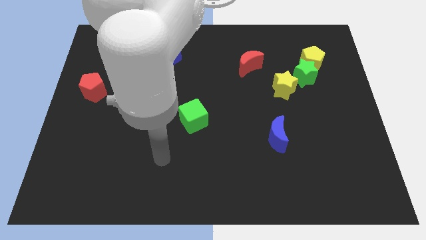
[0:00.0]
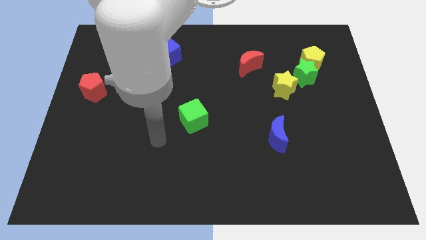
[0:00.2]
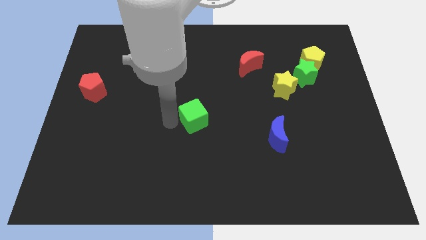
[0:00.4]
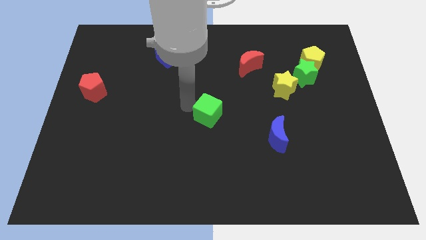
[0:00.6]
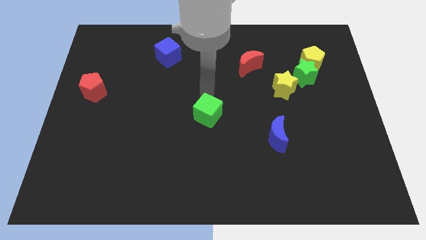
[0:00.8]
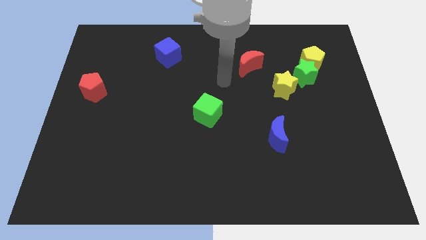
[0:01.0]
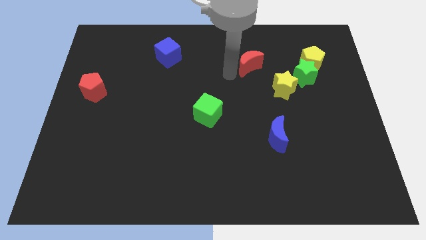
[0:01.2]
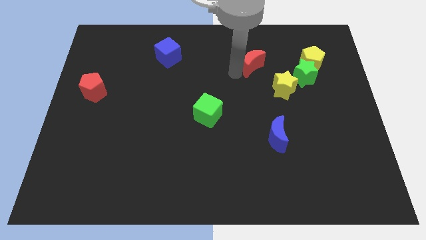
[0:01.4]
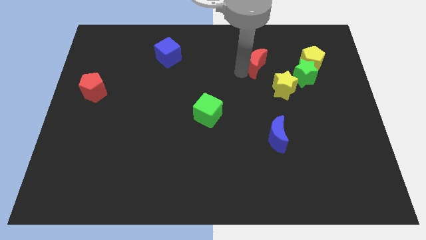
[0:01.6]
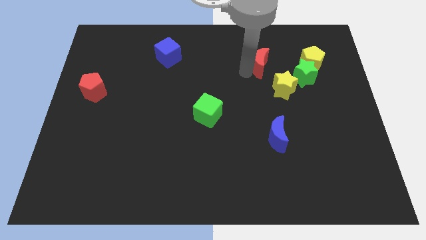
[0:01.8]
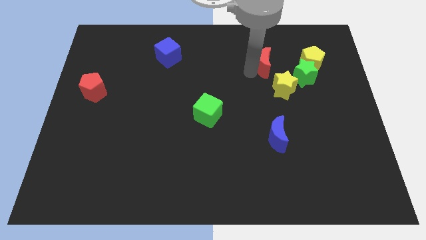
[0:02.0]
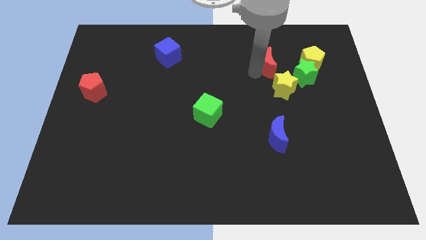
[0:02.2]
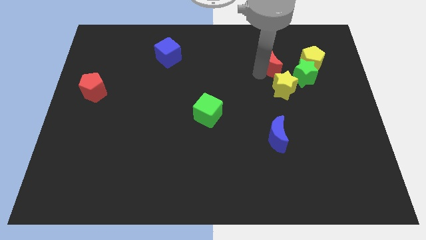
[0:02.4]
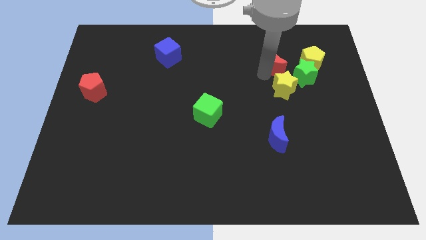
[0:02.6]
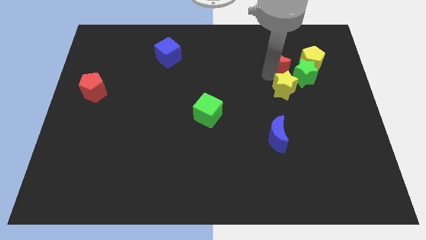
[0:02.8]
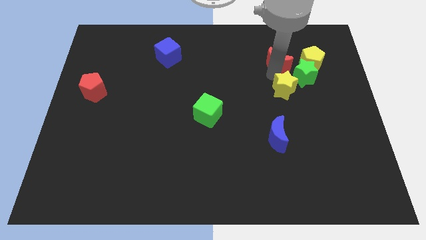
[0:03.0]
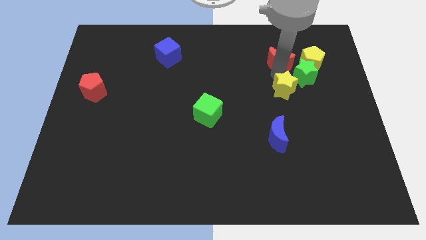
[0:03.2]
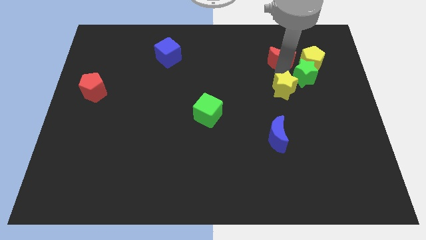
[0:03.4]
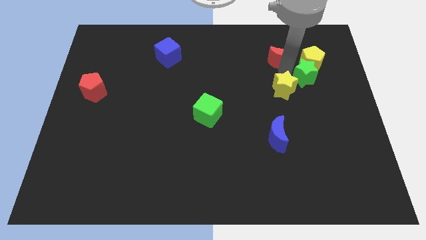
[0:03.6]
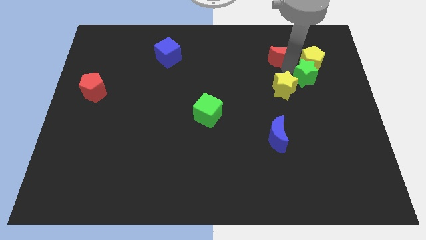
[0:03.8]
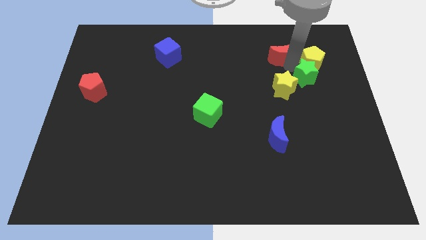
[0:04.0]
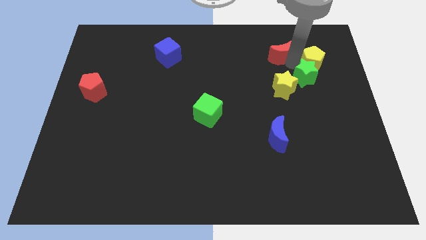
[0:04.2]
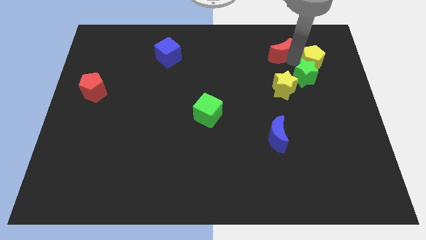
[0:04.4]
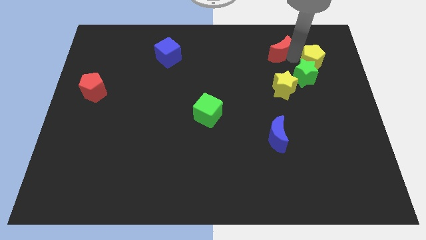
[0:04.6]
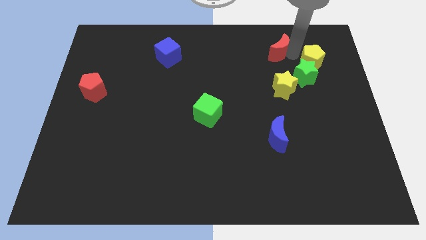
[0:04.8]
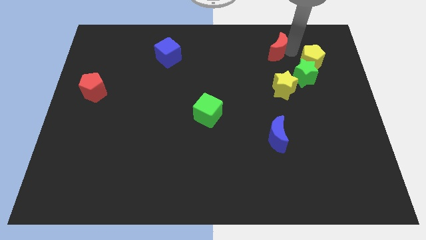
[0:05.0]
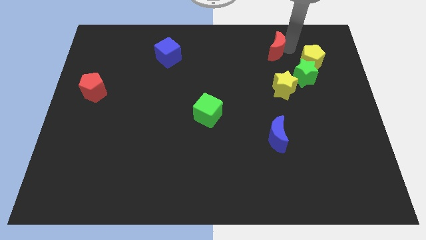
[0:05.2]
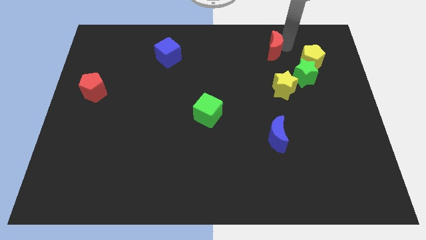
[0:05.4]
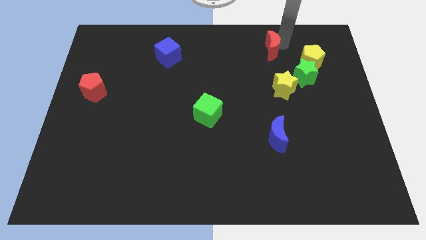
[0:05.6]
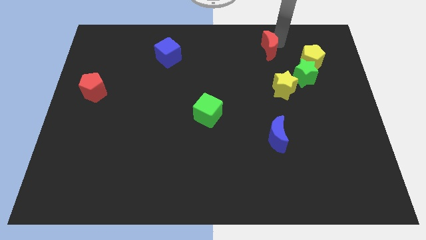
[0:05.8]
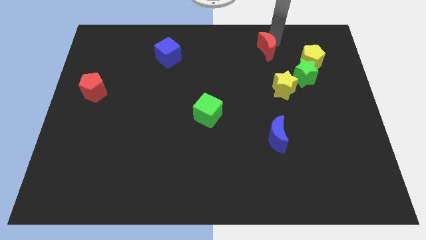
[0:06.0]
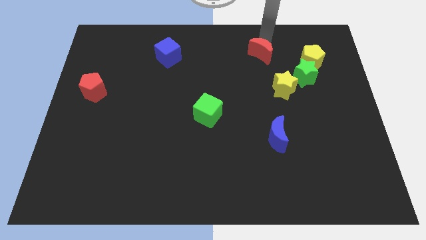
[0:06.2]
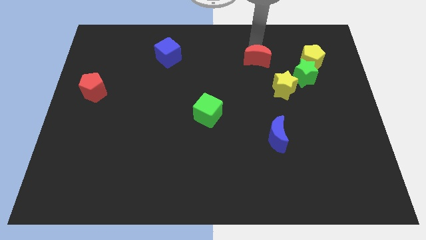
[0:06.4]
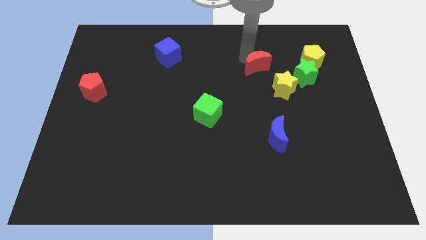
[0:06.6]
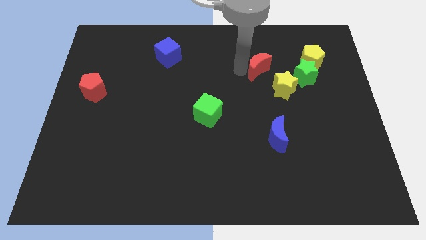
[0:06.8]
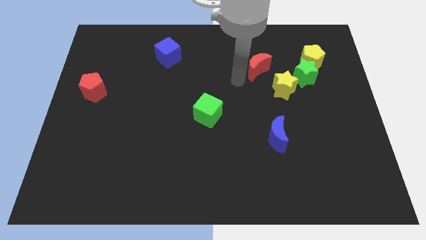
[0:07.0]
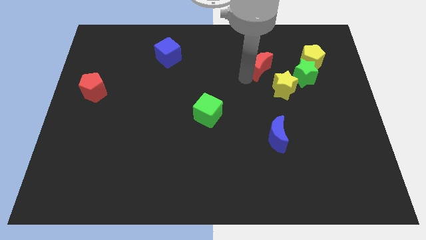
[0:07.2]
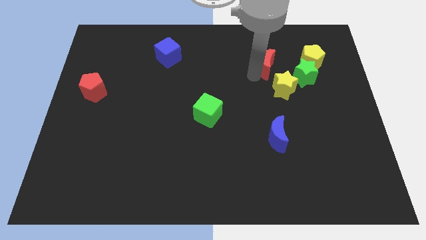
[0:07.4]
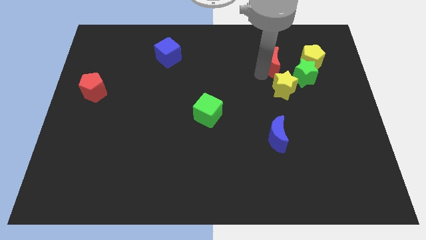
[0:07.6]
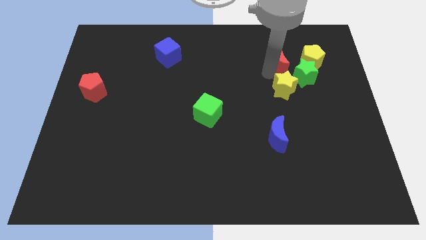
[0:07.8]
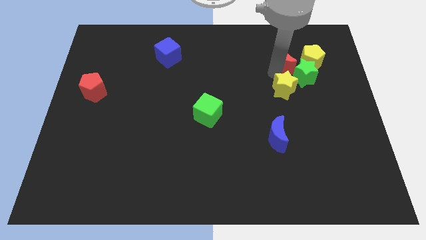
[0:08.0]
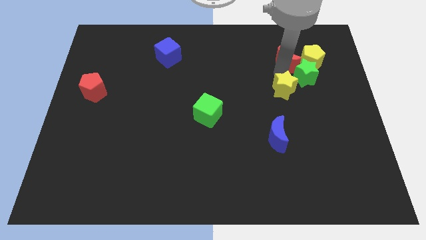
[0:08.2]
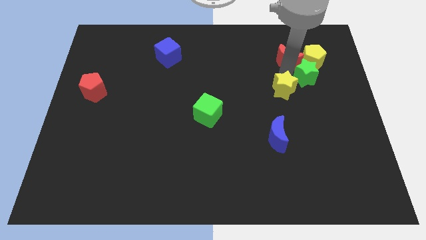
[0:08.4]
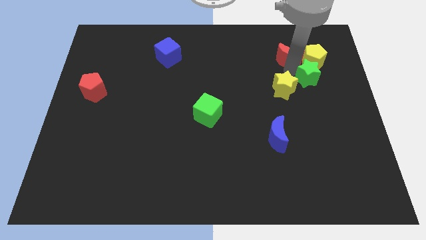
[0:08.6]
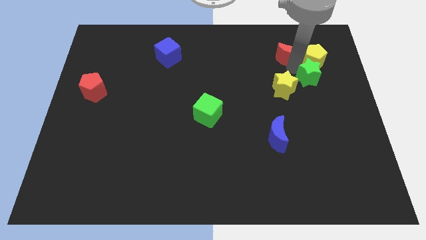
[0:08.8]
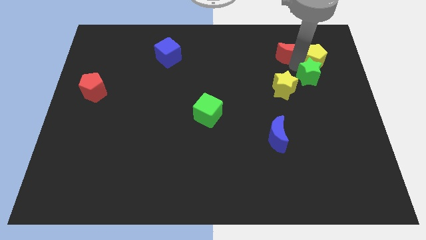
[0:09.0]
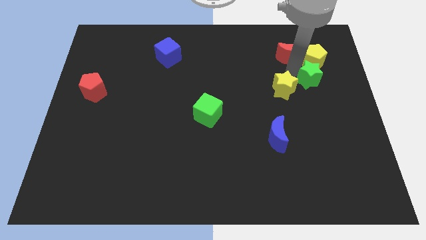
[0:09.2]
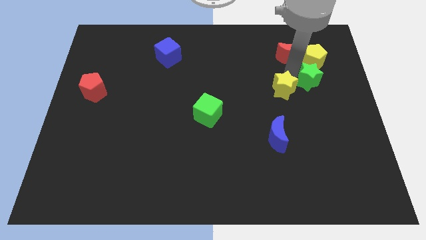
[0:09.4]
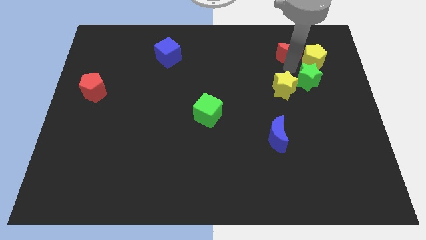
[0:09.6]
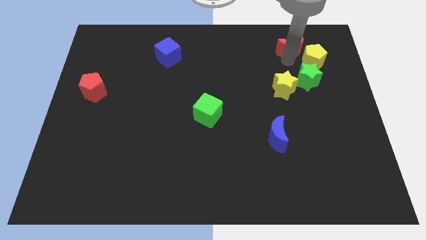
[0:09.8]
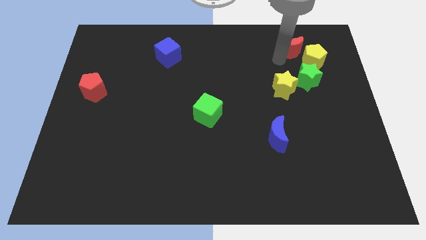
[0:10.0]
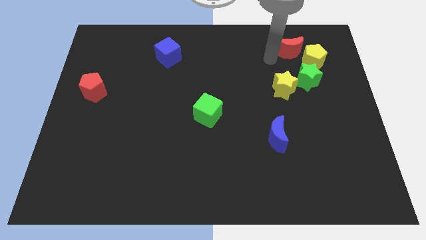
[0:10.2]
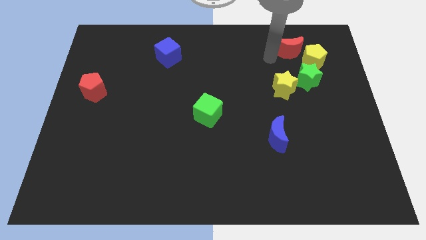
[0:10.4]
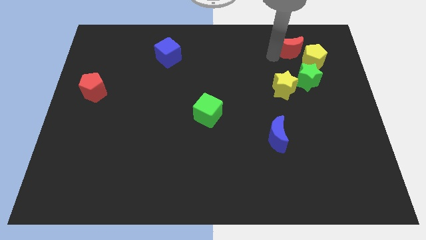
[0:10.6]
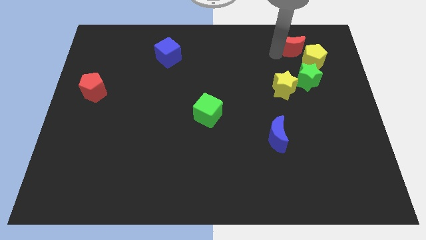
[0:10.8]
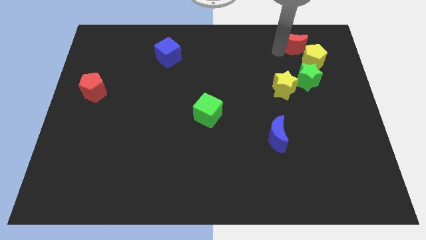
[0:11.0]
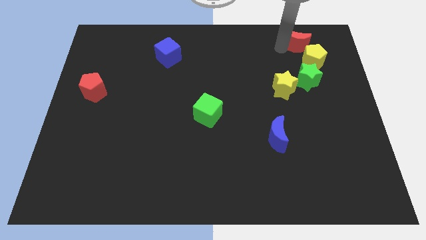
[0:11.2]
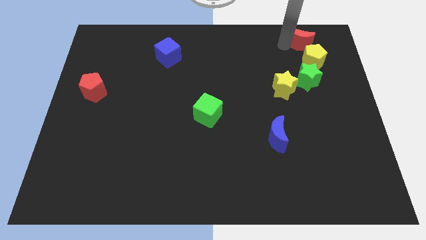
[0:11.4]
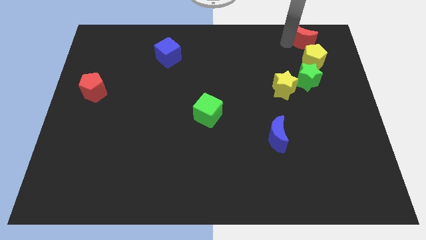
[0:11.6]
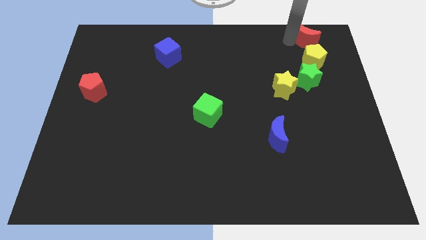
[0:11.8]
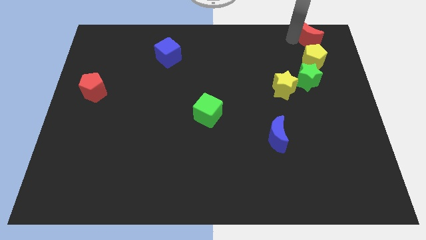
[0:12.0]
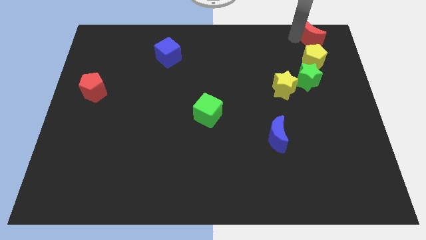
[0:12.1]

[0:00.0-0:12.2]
move the red moon to the top right corner

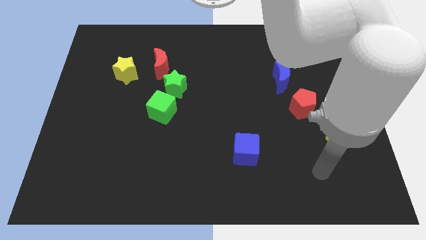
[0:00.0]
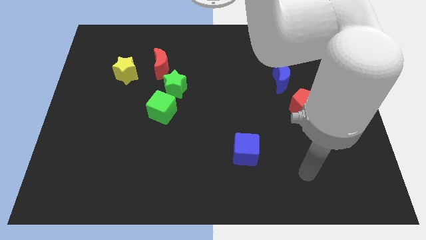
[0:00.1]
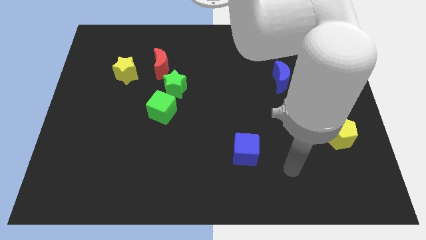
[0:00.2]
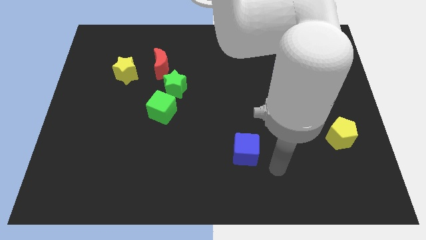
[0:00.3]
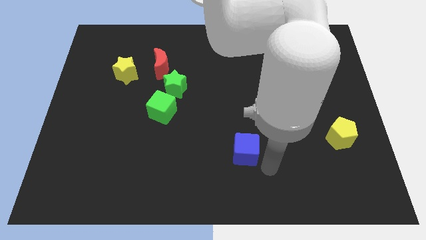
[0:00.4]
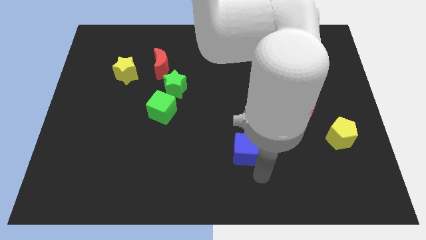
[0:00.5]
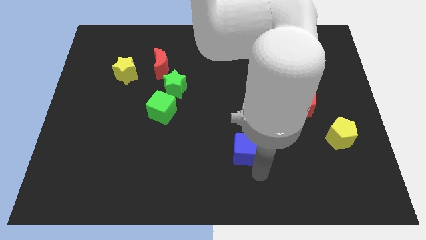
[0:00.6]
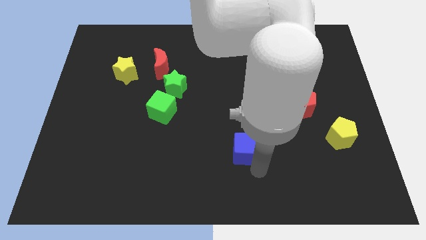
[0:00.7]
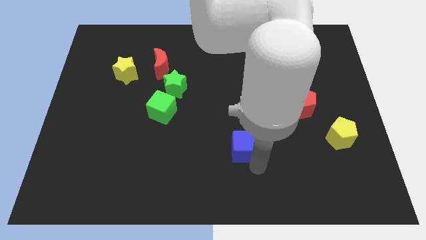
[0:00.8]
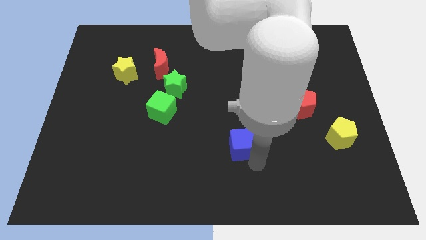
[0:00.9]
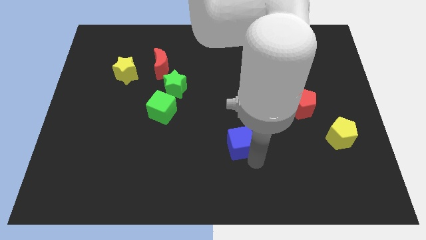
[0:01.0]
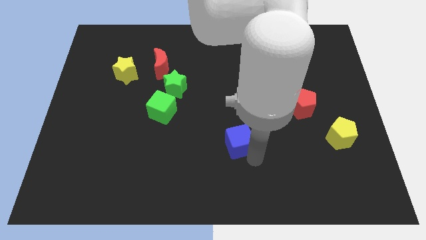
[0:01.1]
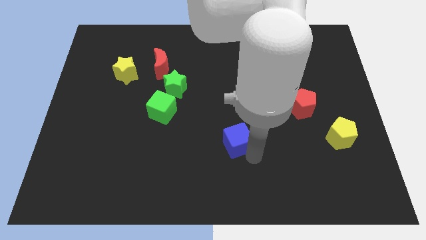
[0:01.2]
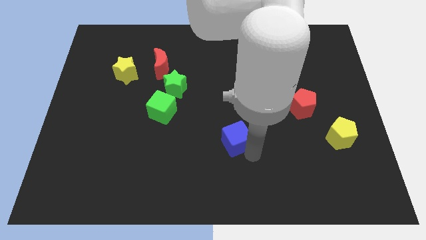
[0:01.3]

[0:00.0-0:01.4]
move the blue cube to the middle of the board
